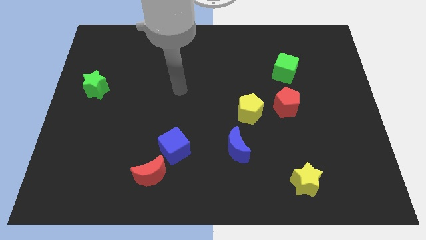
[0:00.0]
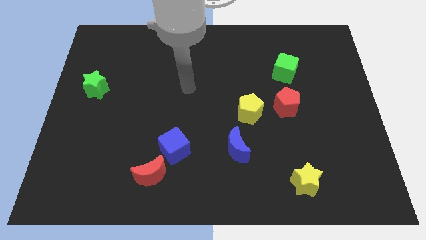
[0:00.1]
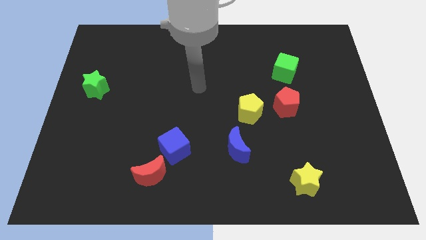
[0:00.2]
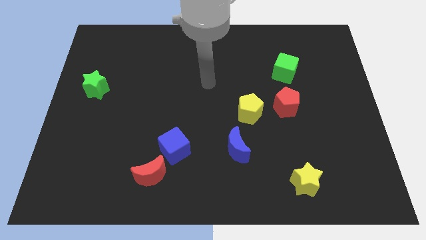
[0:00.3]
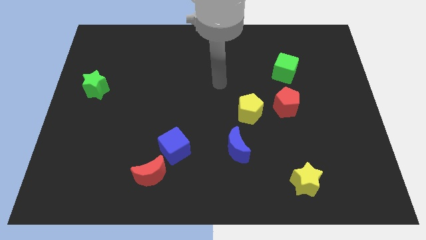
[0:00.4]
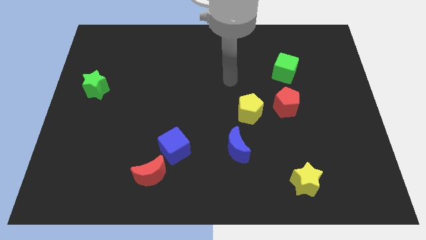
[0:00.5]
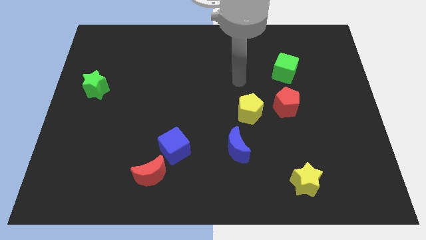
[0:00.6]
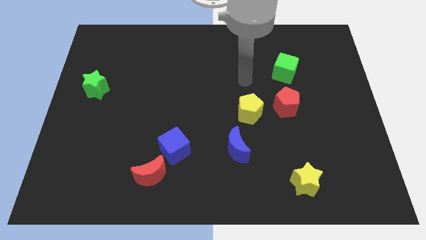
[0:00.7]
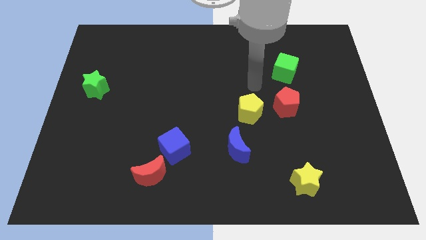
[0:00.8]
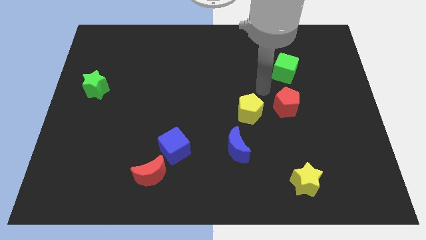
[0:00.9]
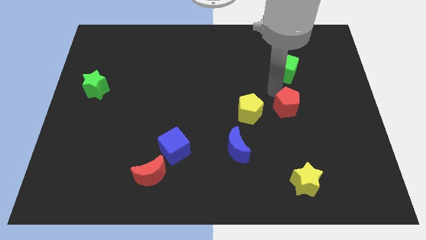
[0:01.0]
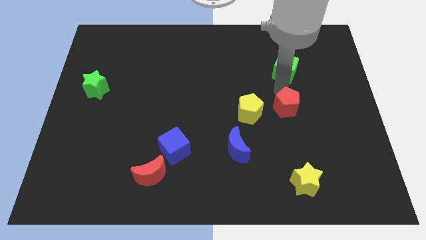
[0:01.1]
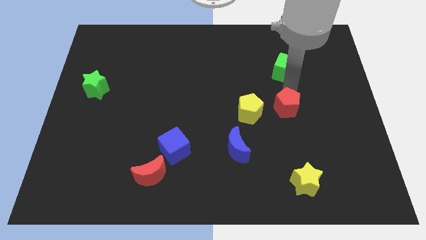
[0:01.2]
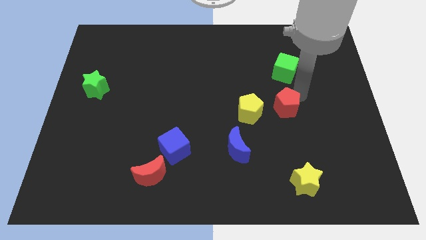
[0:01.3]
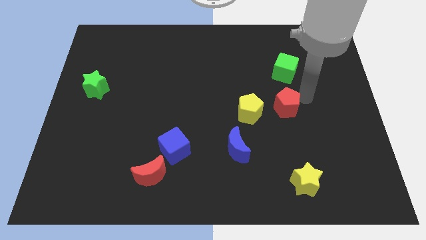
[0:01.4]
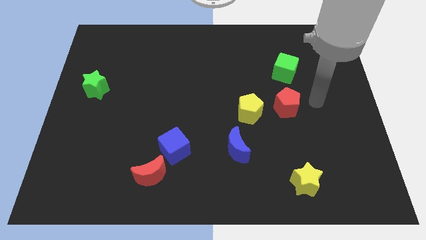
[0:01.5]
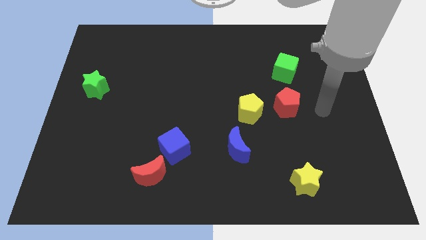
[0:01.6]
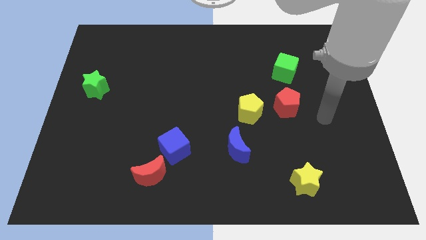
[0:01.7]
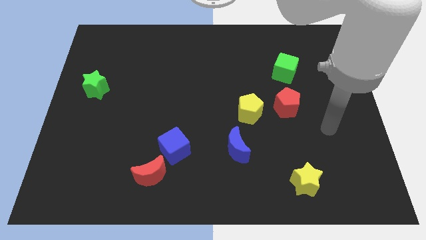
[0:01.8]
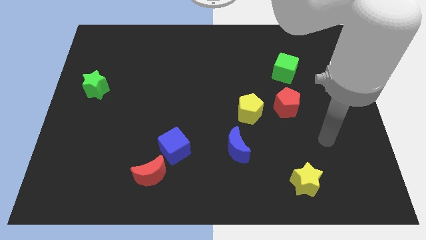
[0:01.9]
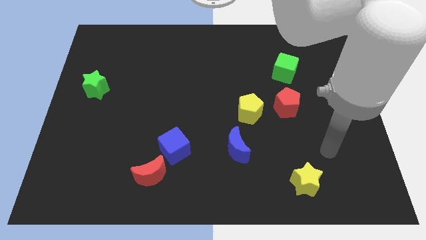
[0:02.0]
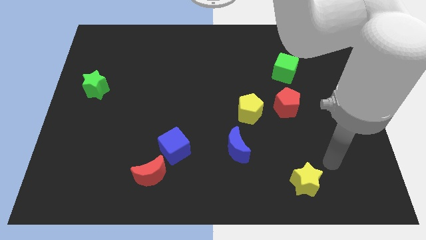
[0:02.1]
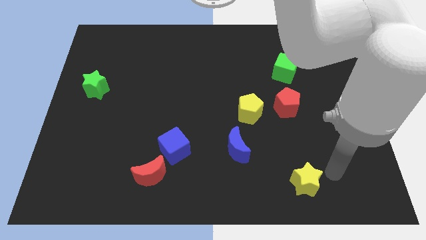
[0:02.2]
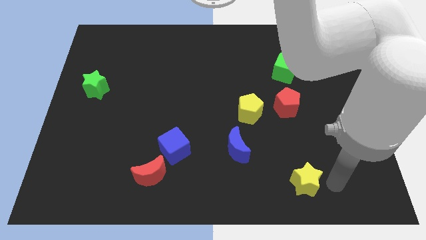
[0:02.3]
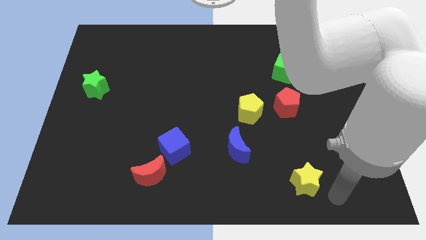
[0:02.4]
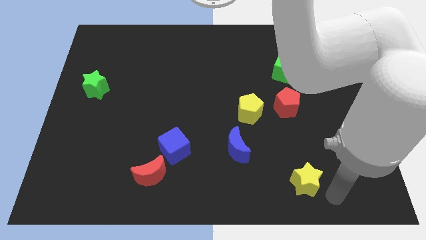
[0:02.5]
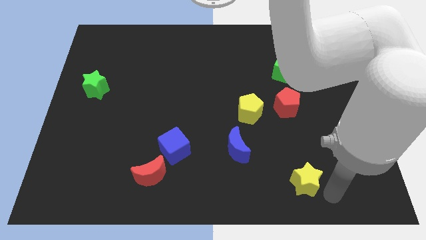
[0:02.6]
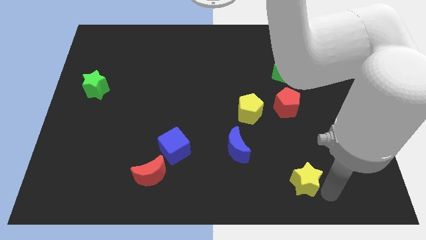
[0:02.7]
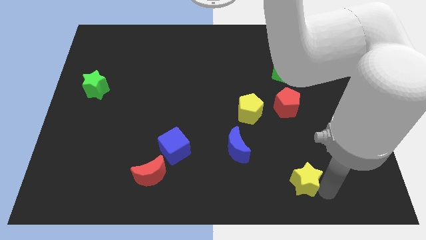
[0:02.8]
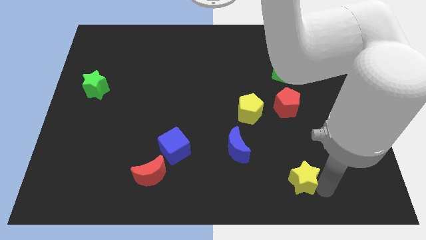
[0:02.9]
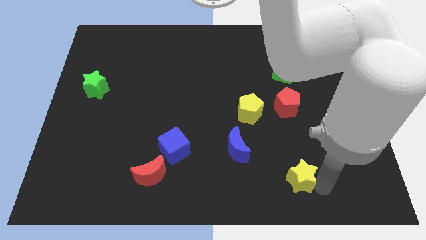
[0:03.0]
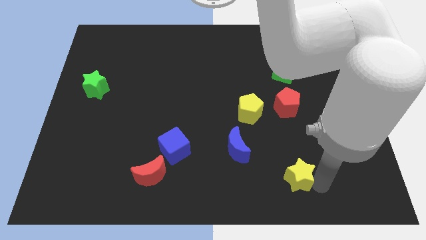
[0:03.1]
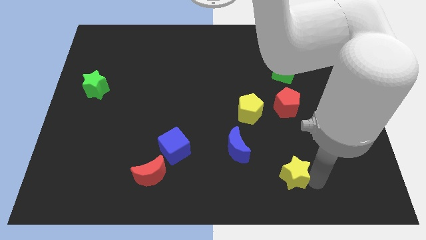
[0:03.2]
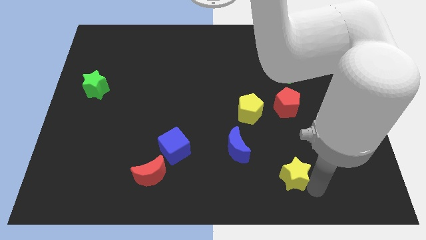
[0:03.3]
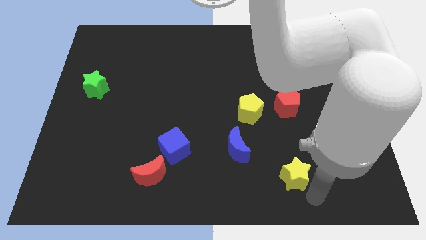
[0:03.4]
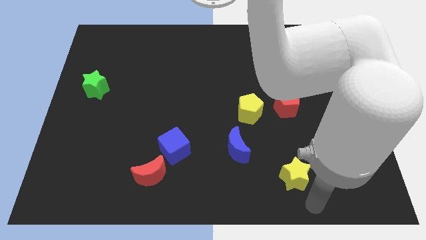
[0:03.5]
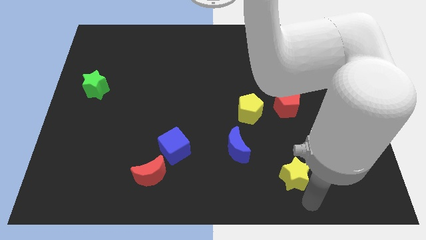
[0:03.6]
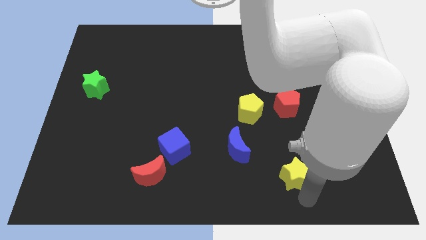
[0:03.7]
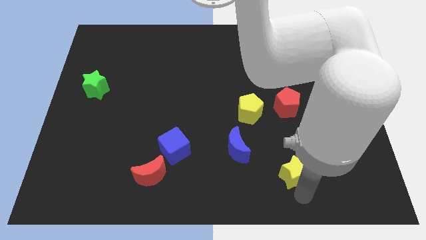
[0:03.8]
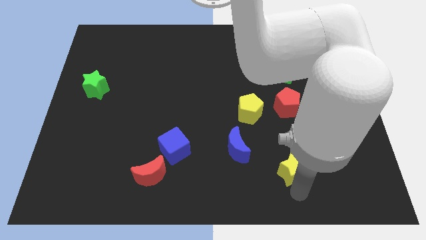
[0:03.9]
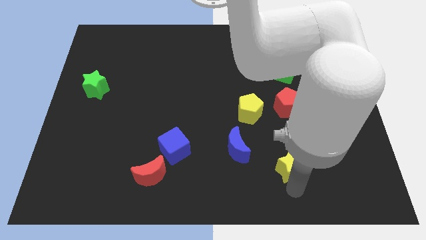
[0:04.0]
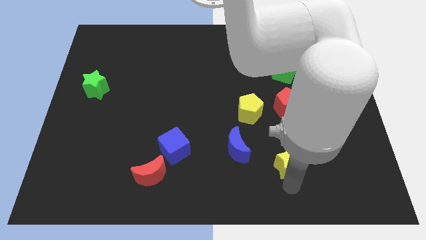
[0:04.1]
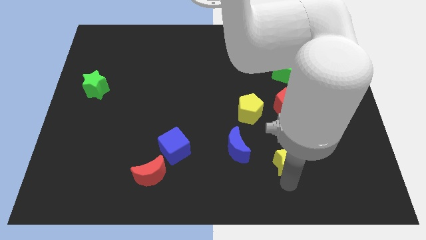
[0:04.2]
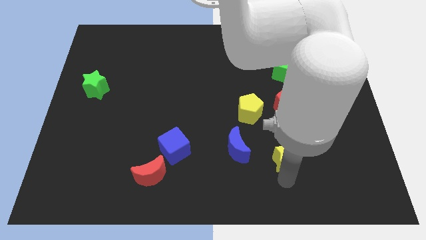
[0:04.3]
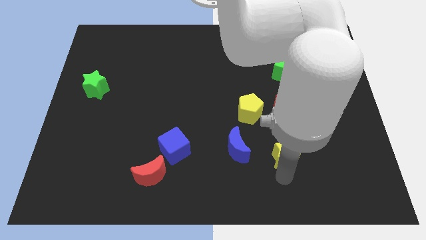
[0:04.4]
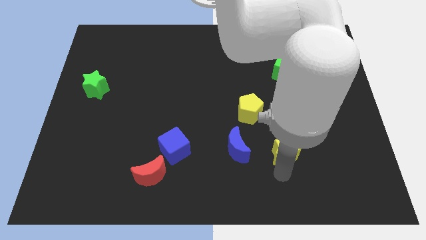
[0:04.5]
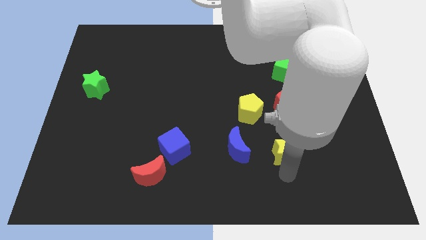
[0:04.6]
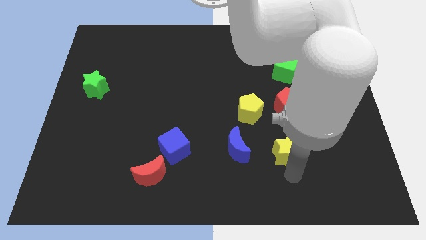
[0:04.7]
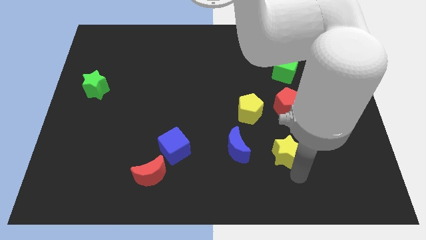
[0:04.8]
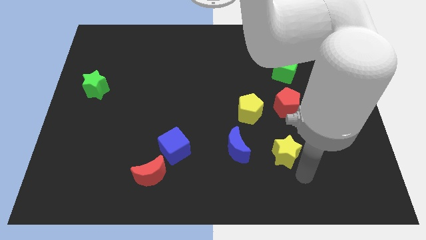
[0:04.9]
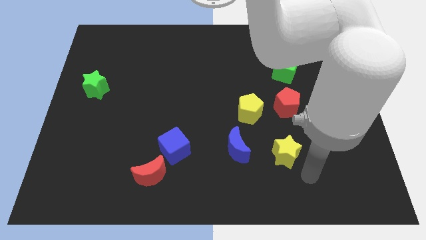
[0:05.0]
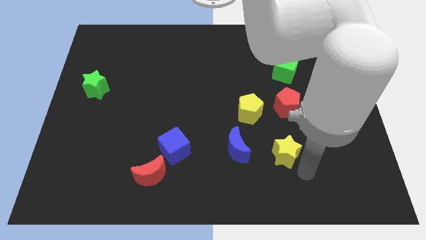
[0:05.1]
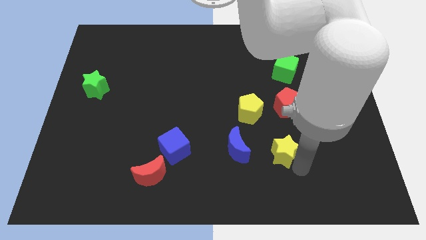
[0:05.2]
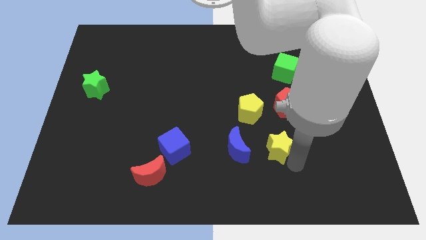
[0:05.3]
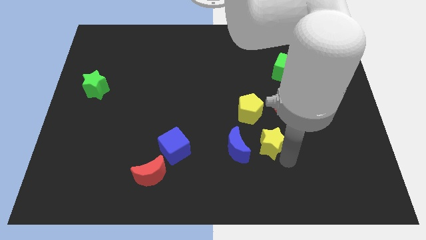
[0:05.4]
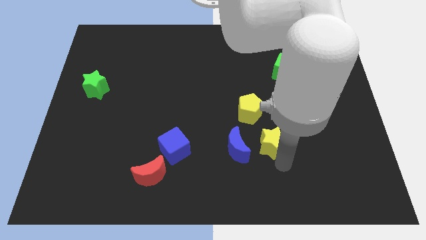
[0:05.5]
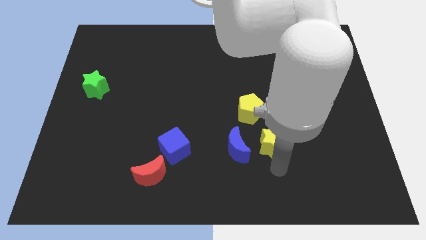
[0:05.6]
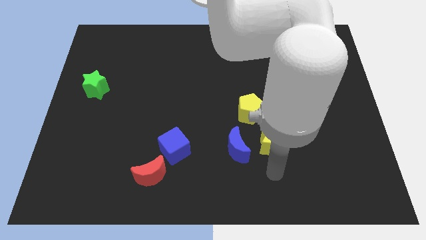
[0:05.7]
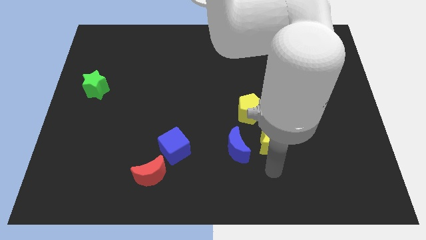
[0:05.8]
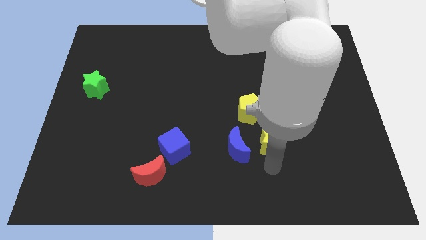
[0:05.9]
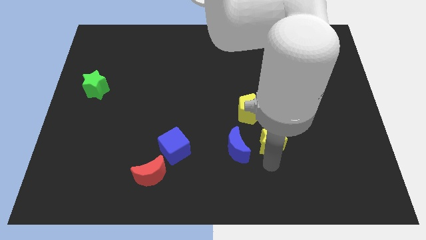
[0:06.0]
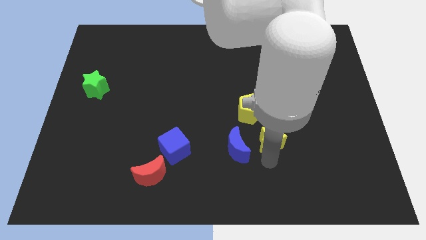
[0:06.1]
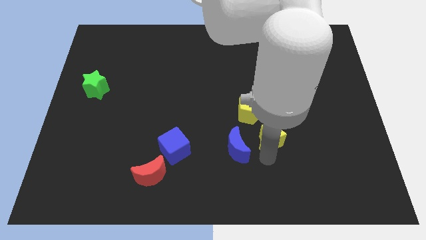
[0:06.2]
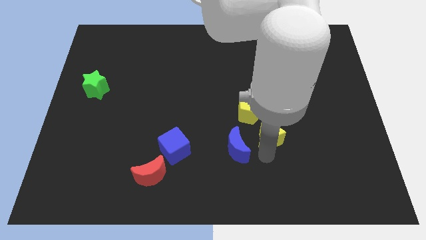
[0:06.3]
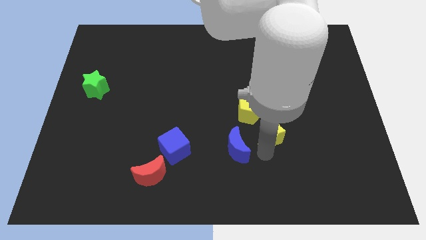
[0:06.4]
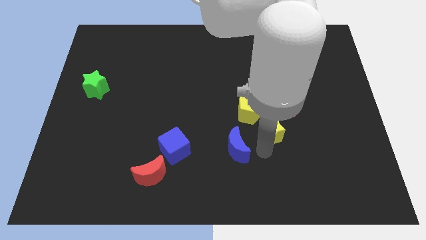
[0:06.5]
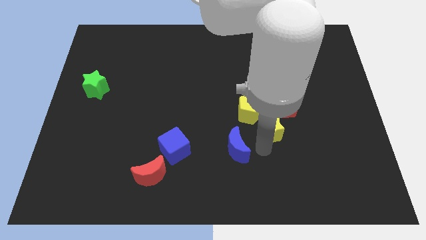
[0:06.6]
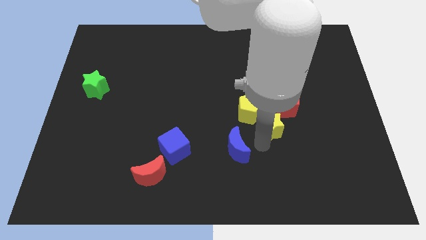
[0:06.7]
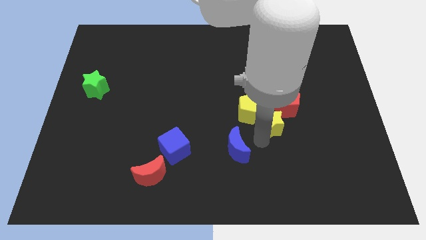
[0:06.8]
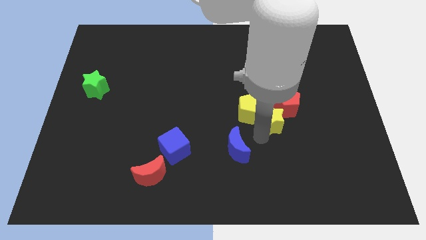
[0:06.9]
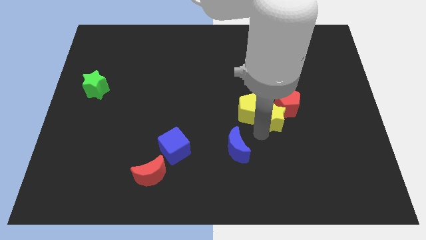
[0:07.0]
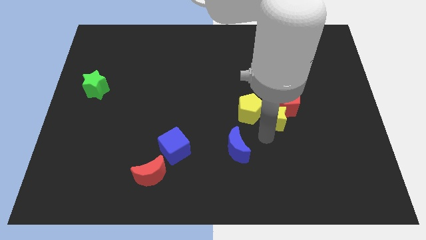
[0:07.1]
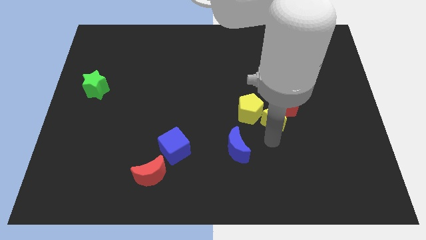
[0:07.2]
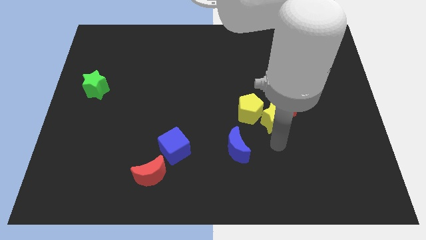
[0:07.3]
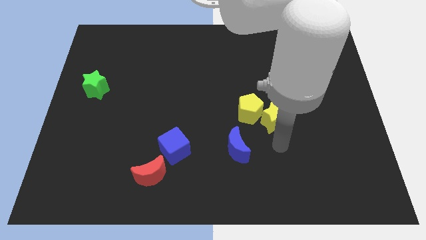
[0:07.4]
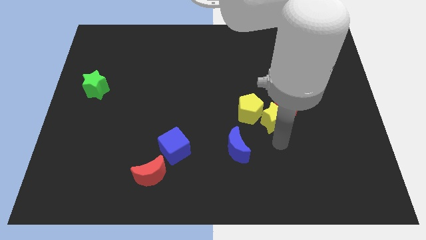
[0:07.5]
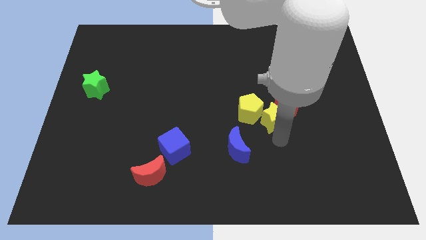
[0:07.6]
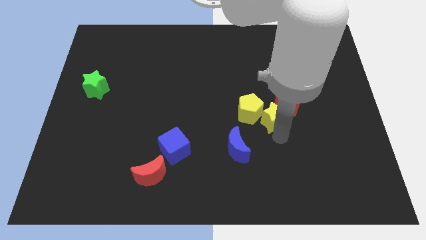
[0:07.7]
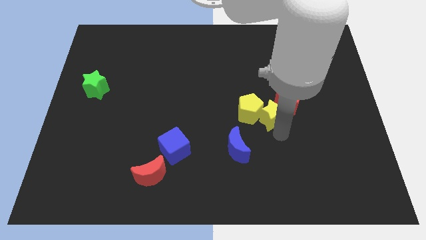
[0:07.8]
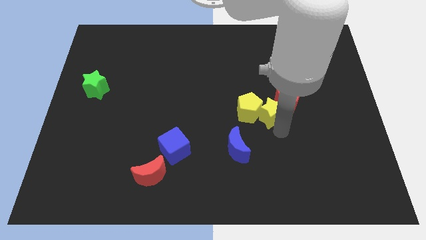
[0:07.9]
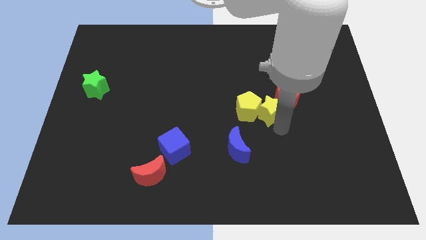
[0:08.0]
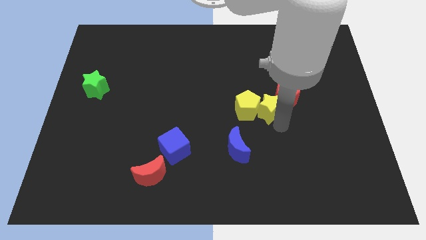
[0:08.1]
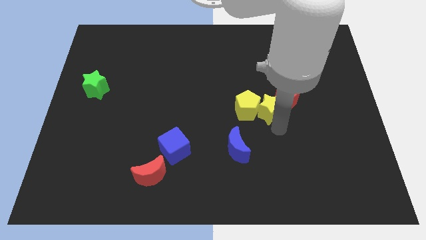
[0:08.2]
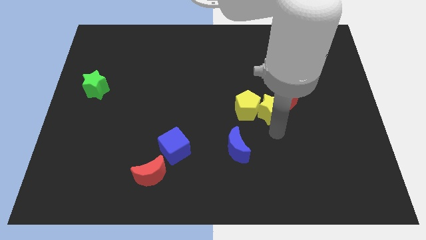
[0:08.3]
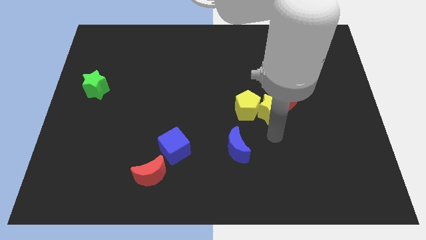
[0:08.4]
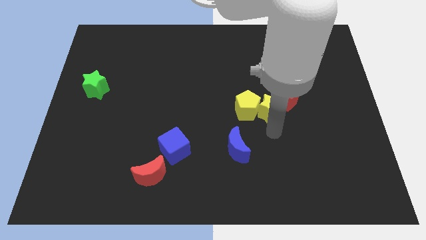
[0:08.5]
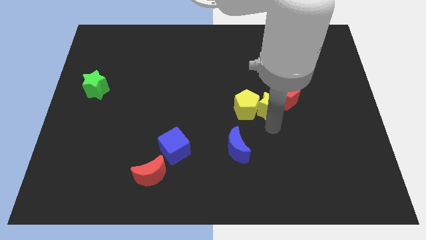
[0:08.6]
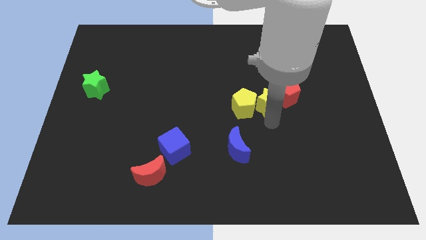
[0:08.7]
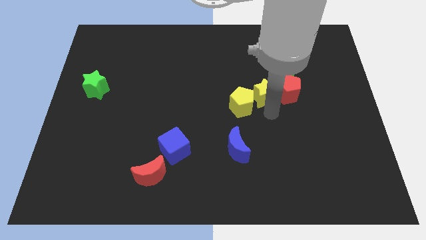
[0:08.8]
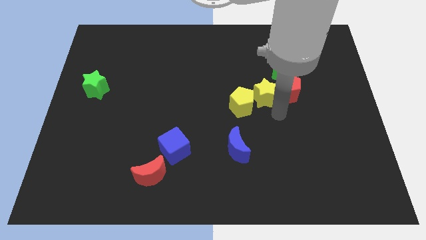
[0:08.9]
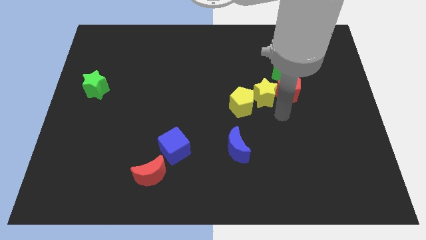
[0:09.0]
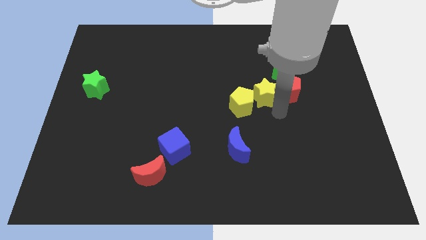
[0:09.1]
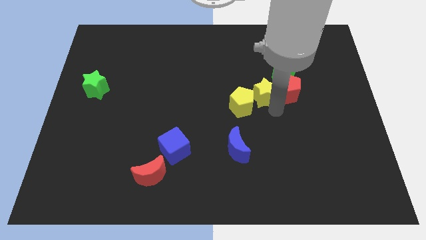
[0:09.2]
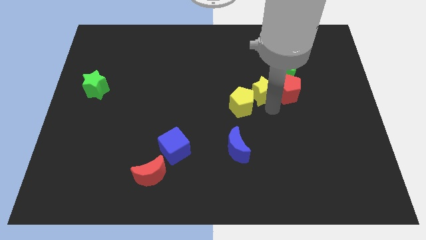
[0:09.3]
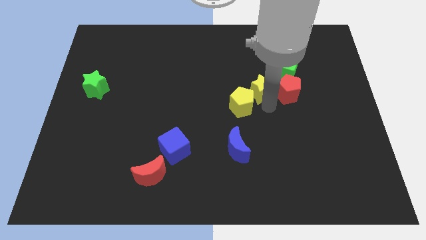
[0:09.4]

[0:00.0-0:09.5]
move the yellow star to the top of the yellow pentagon
